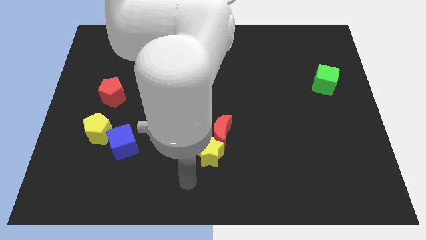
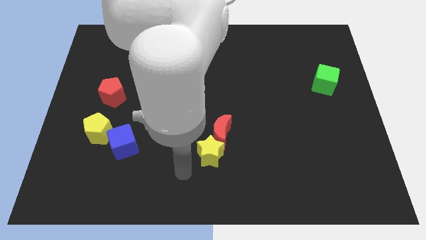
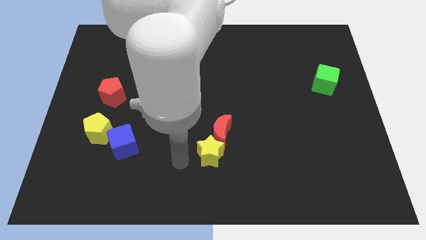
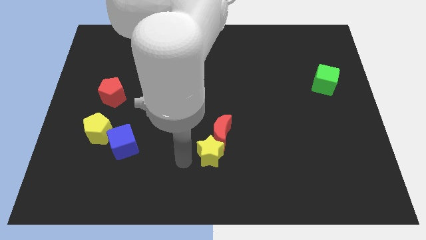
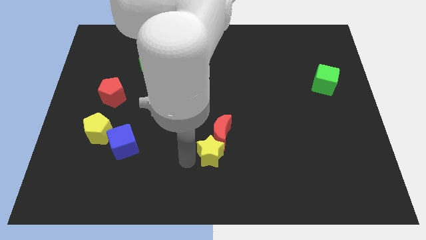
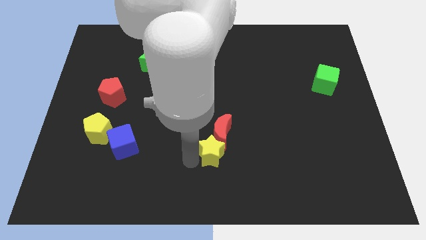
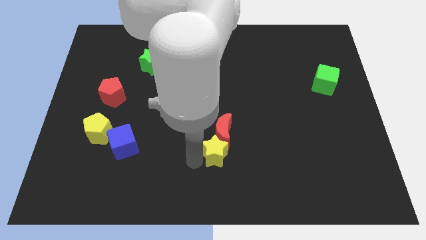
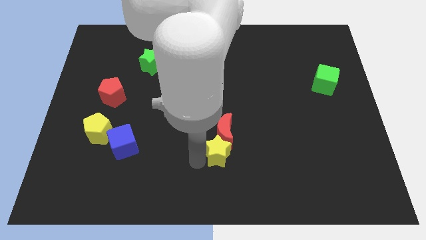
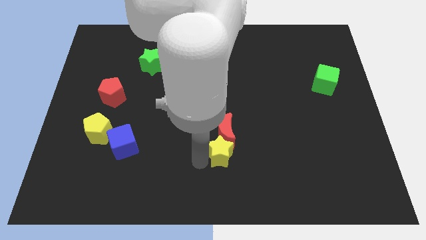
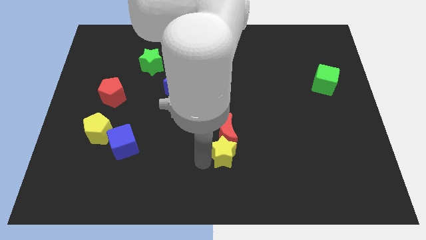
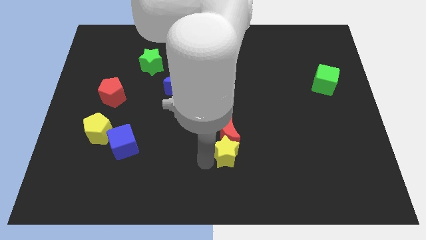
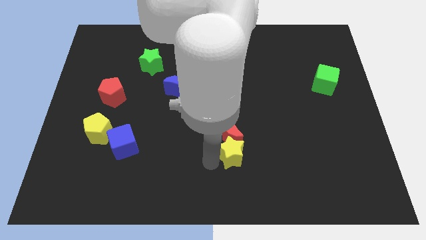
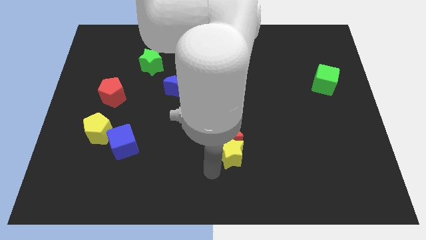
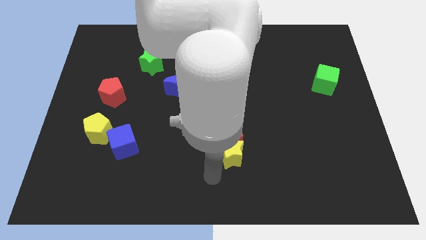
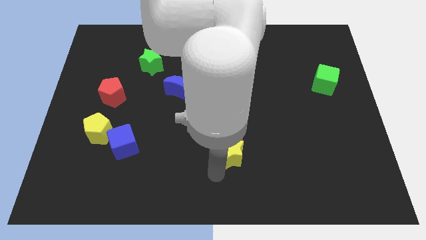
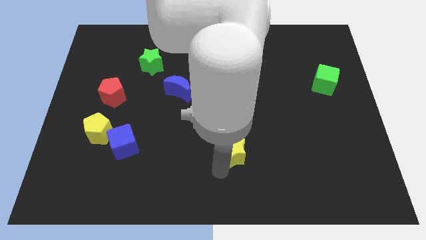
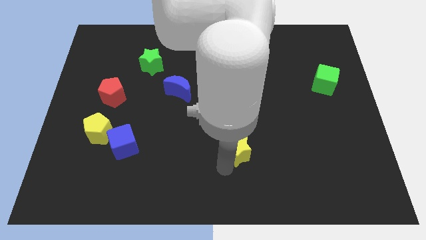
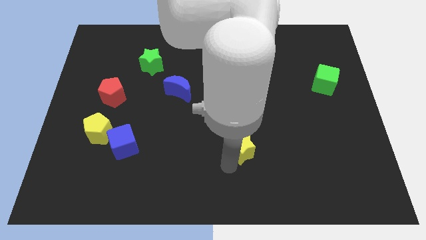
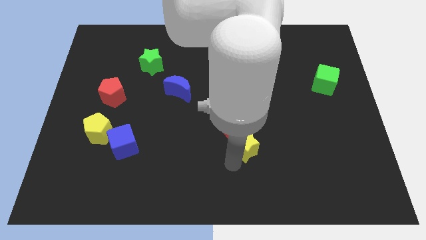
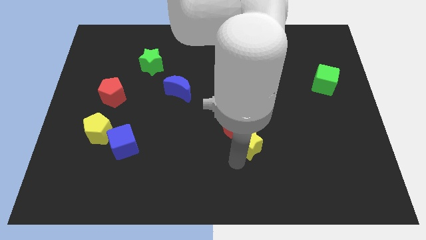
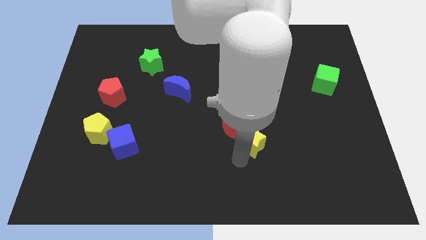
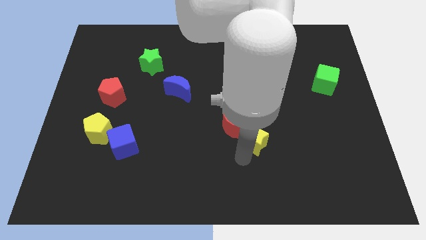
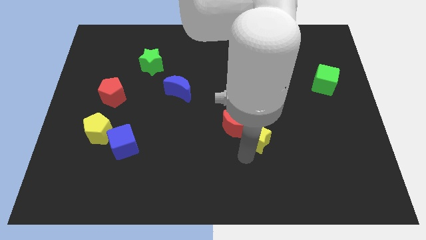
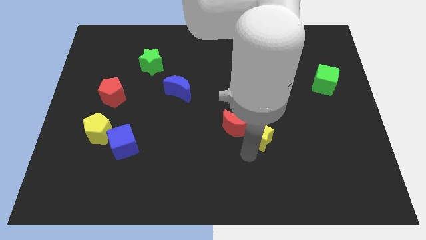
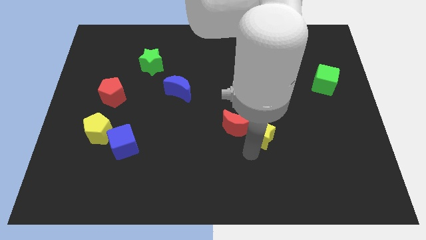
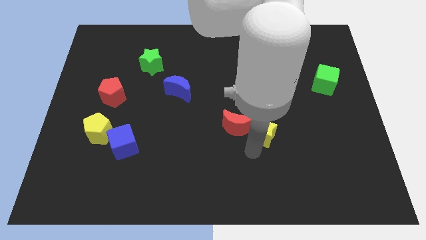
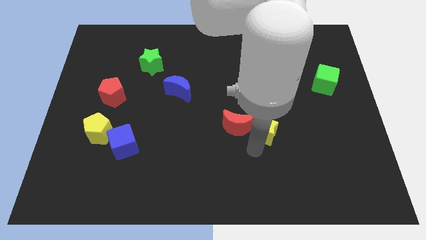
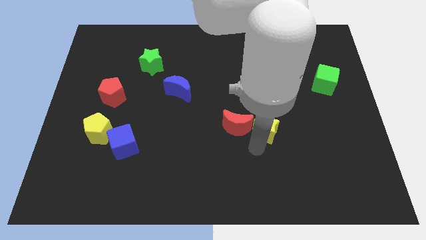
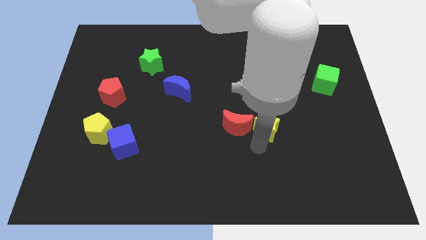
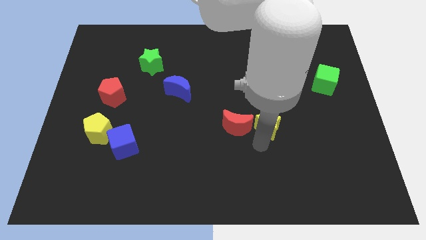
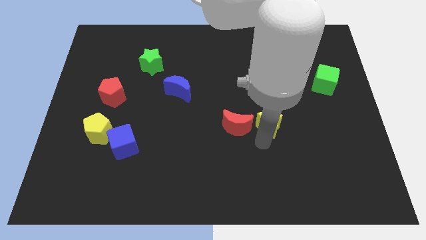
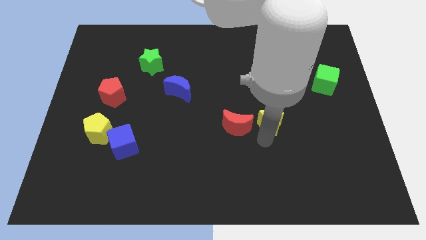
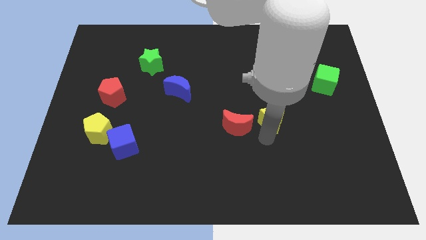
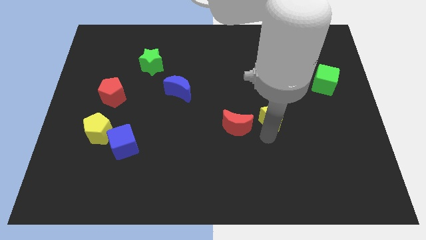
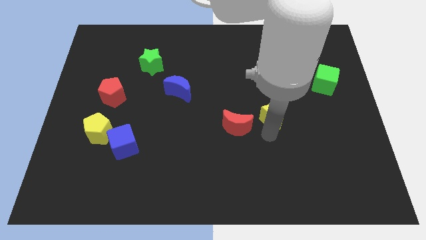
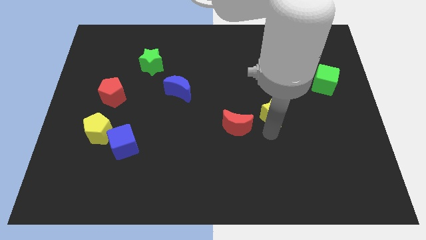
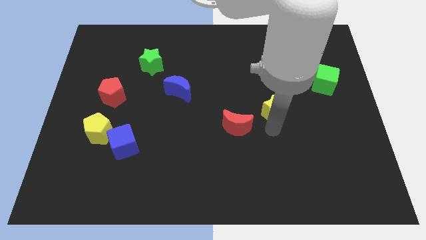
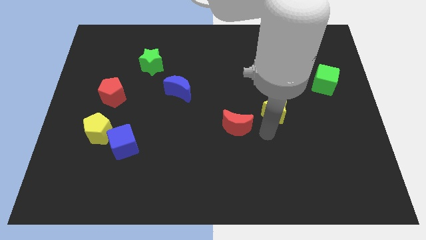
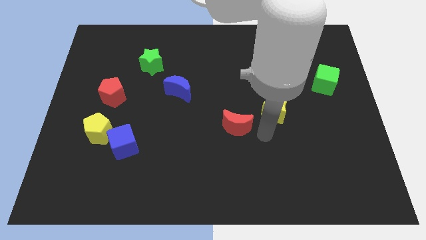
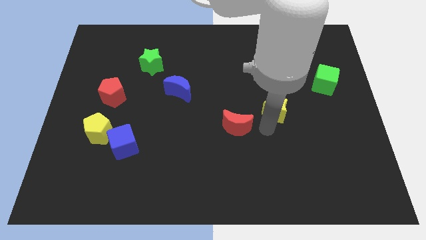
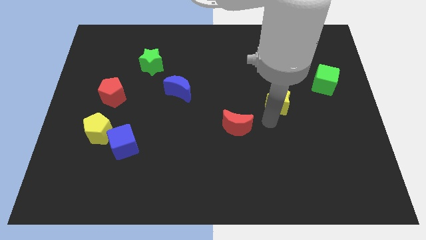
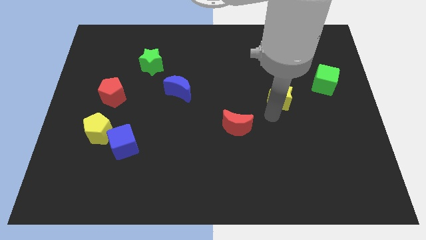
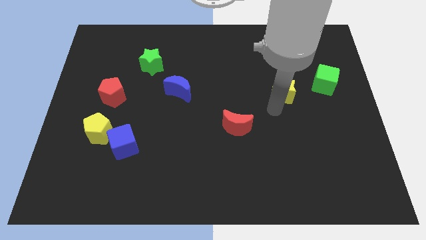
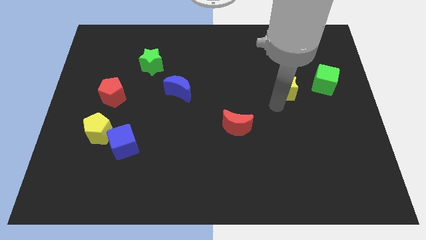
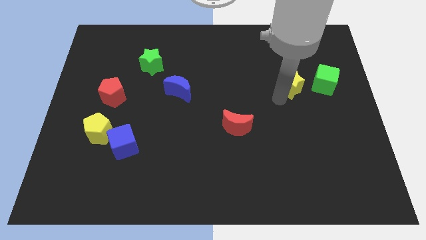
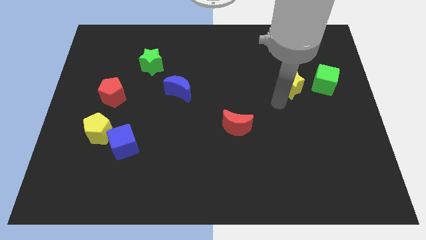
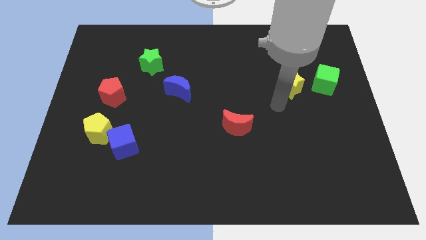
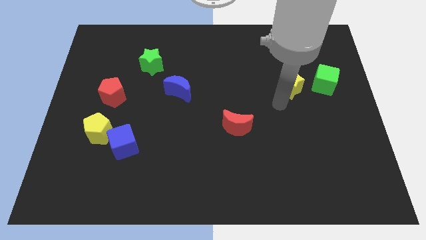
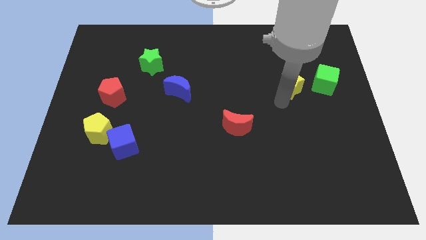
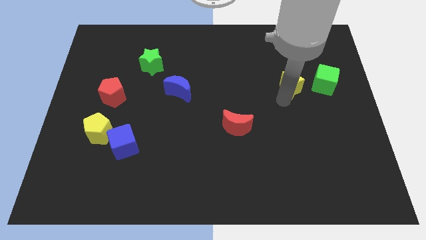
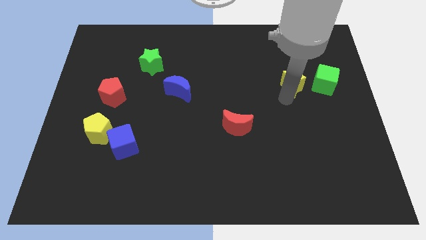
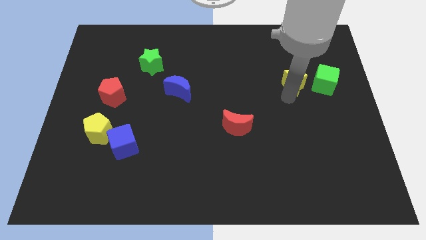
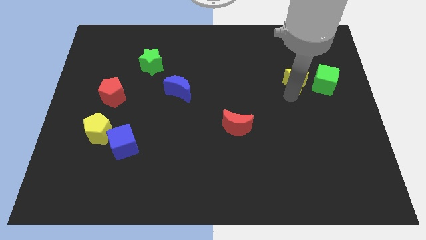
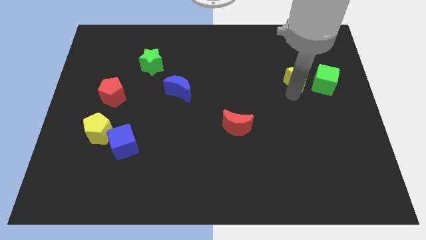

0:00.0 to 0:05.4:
put the yellow star to the top left of the green cube

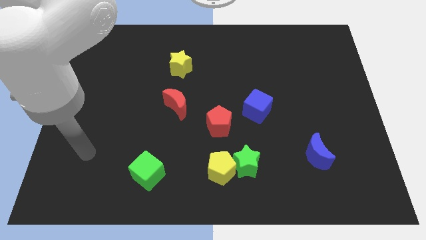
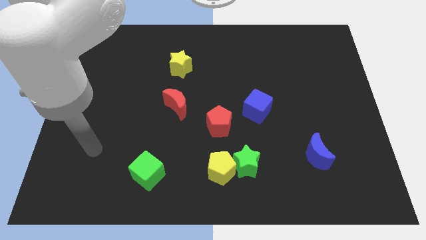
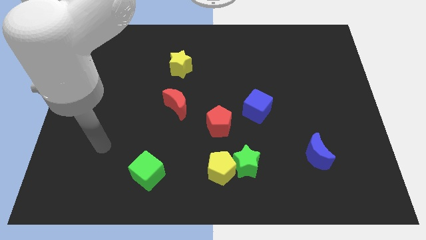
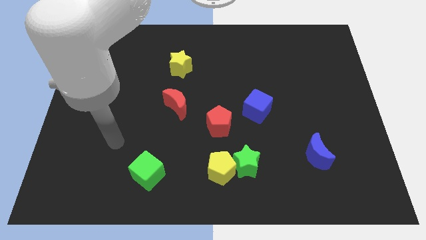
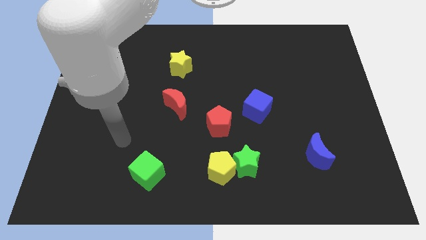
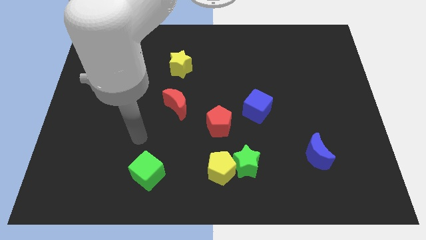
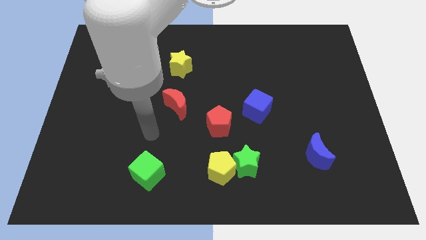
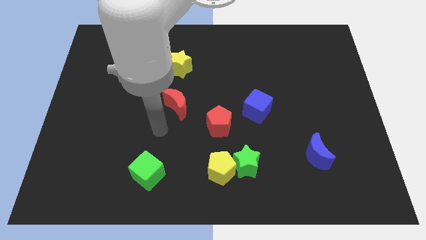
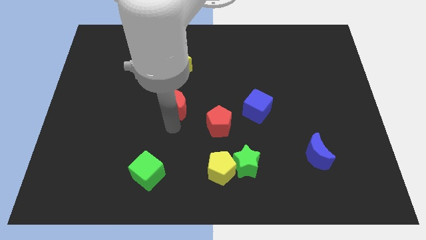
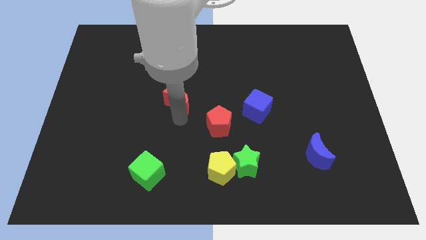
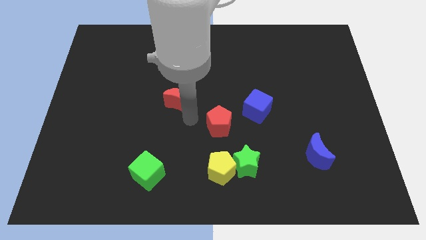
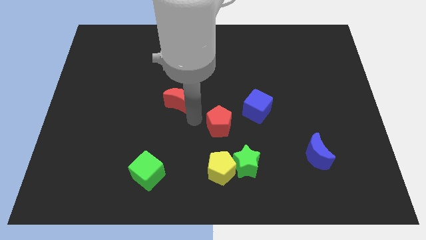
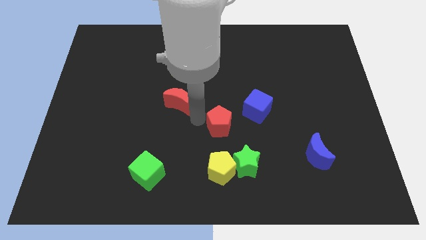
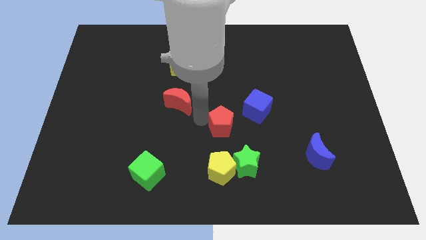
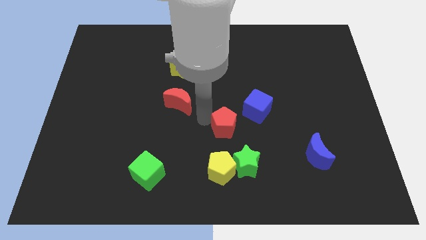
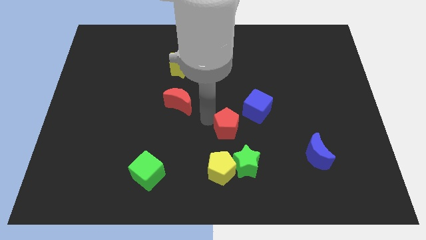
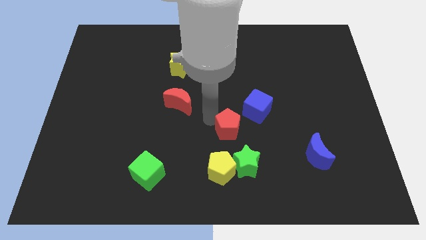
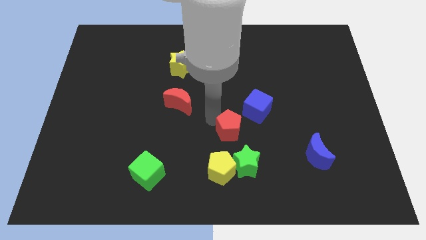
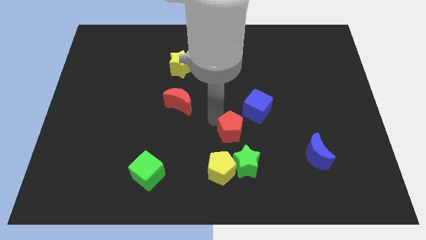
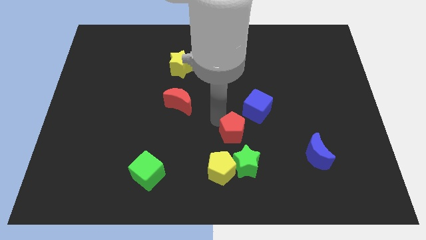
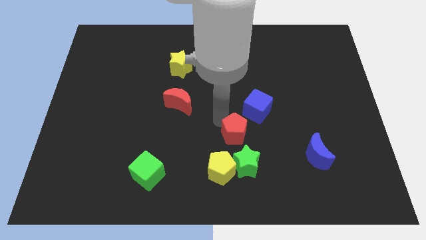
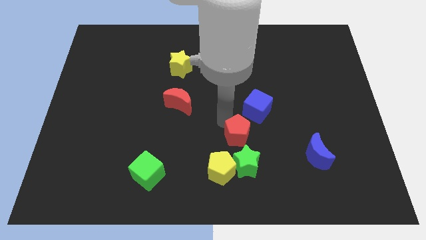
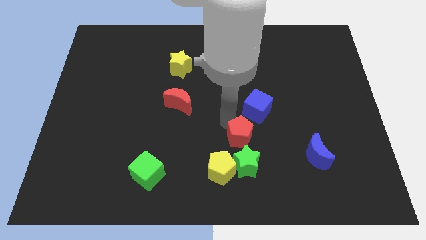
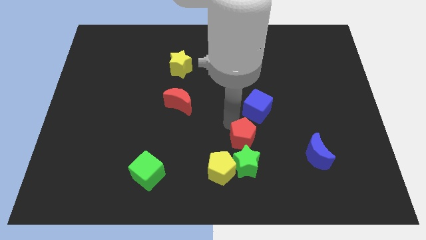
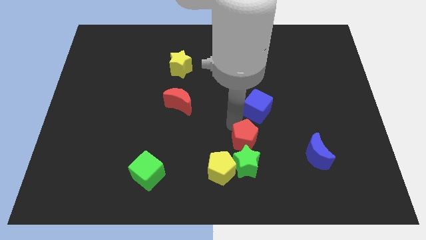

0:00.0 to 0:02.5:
move the red pentagon to the top right side of the green star
